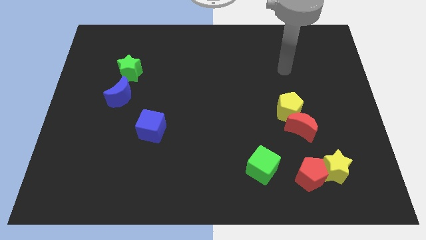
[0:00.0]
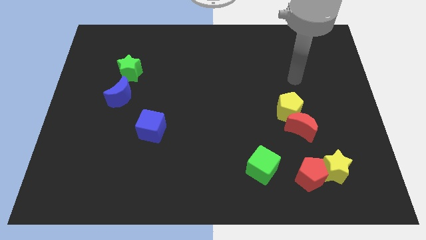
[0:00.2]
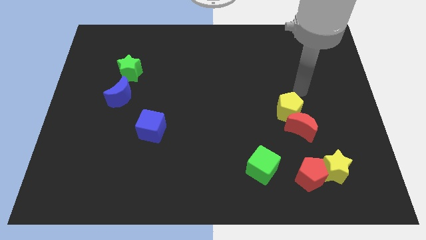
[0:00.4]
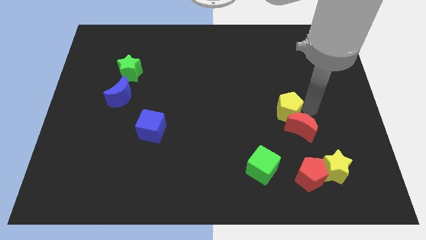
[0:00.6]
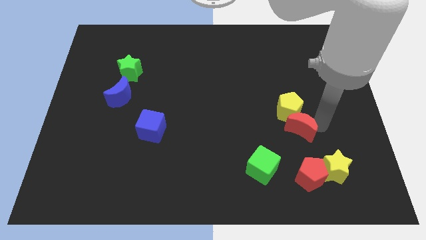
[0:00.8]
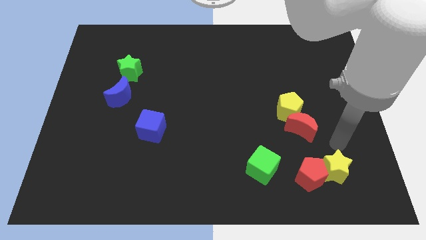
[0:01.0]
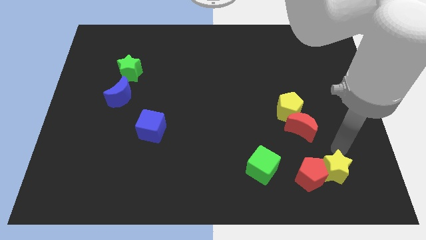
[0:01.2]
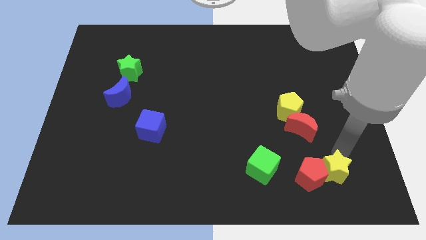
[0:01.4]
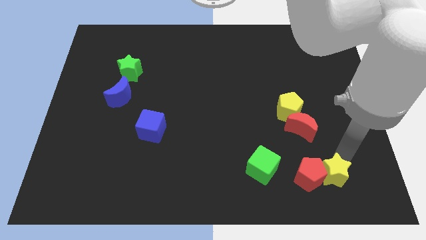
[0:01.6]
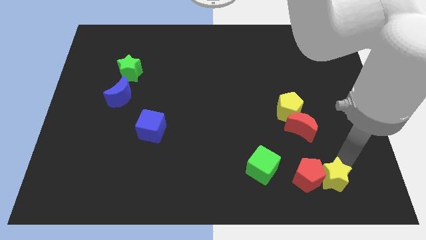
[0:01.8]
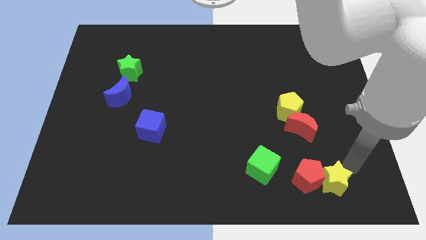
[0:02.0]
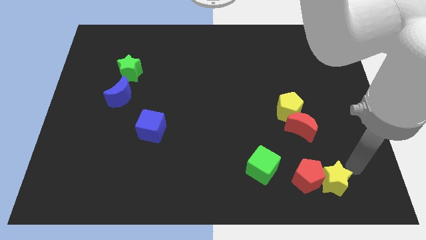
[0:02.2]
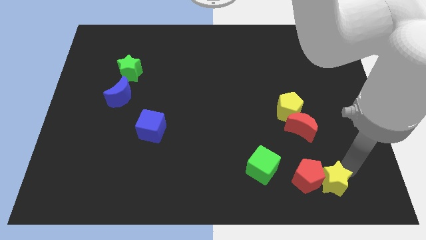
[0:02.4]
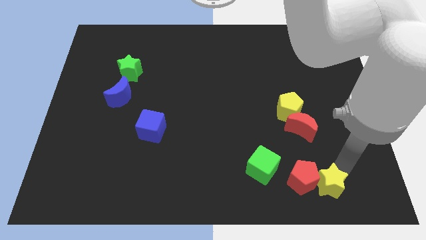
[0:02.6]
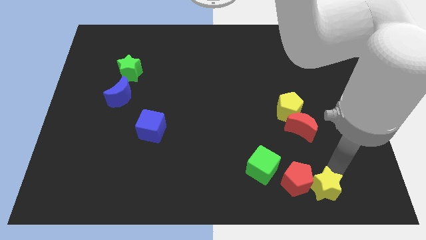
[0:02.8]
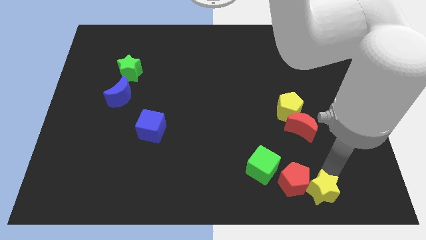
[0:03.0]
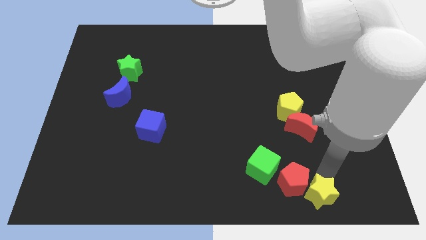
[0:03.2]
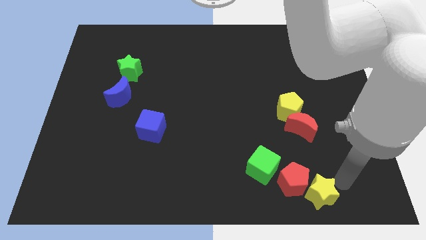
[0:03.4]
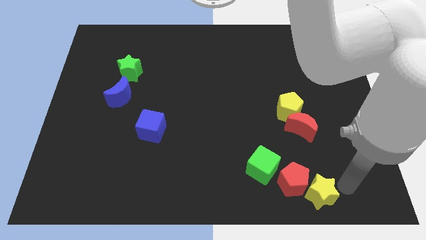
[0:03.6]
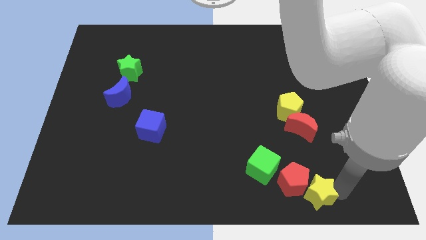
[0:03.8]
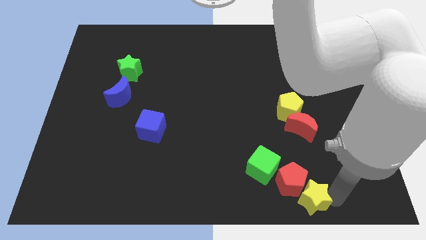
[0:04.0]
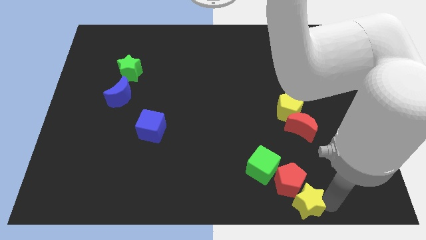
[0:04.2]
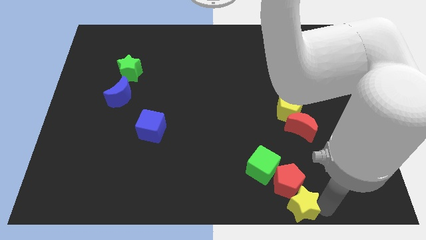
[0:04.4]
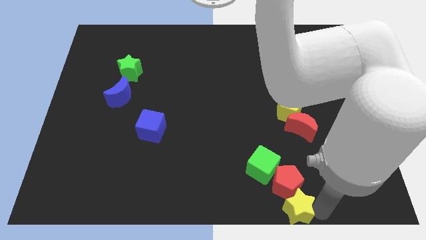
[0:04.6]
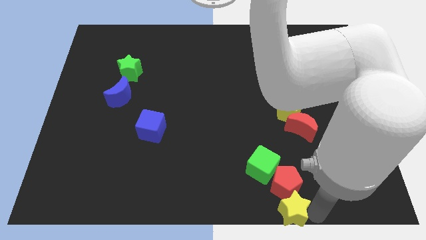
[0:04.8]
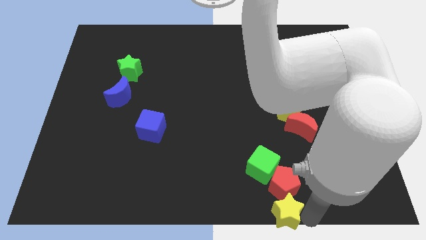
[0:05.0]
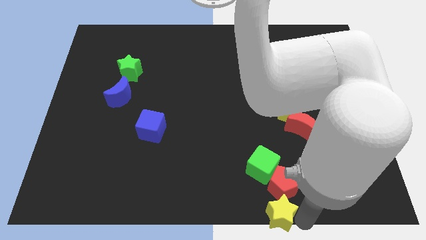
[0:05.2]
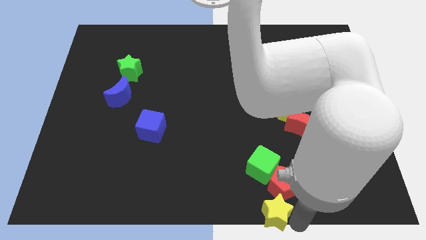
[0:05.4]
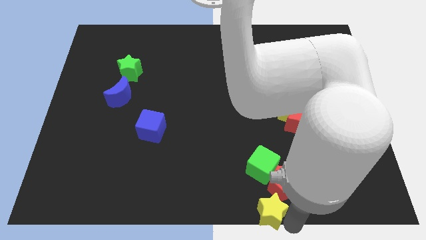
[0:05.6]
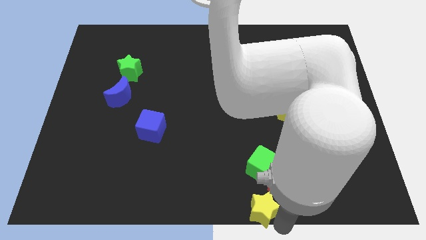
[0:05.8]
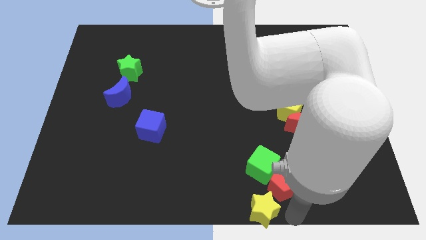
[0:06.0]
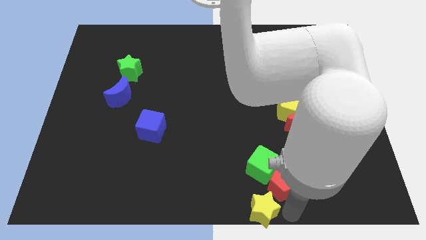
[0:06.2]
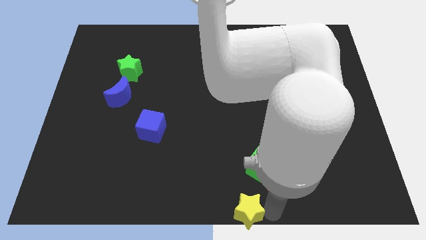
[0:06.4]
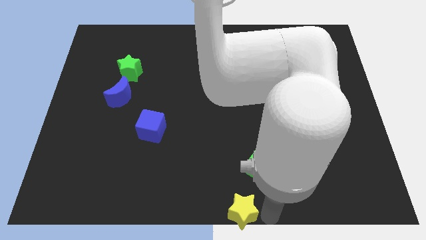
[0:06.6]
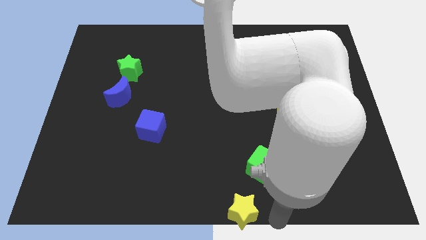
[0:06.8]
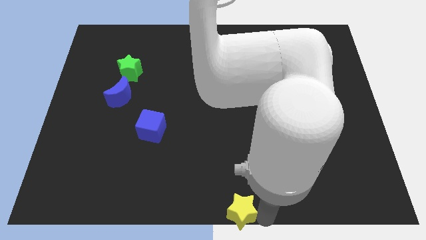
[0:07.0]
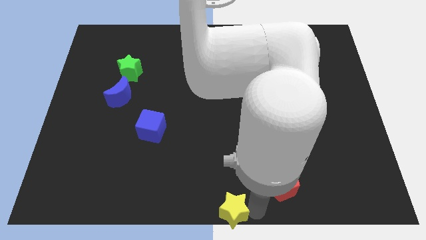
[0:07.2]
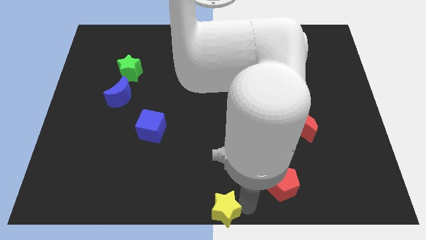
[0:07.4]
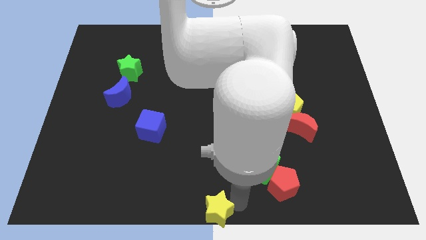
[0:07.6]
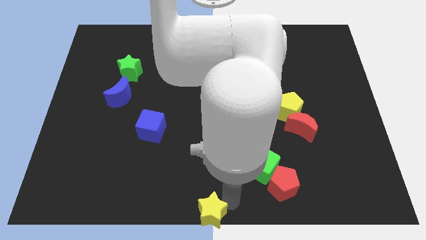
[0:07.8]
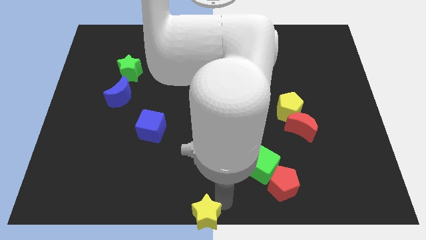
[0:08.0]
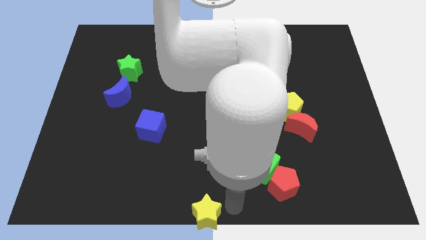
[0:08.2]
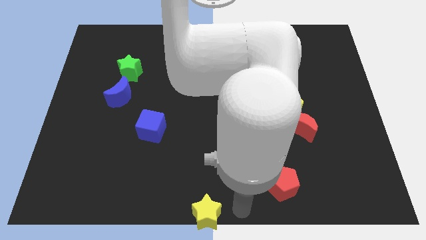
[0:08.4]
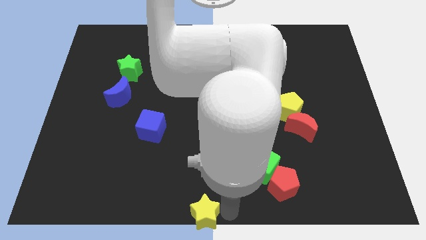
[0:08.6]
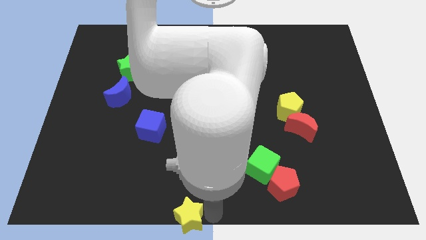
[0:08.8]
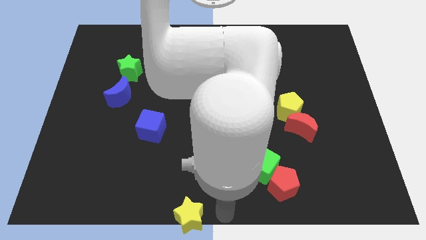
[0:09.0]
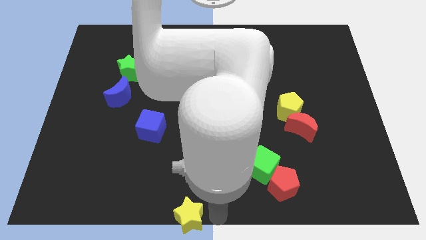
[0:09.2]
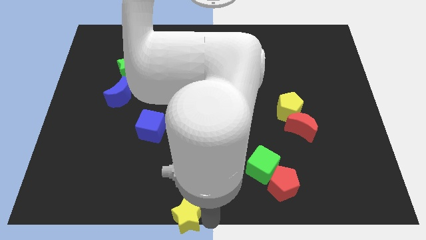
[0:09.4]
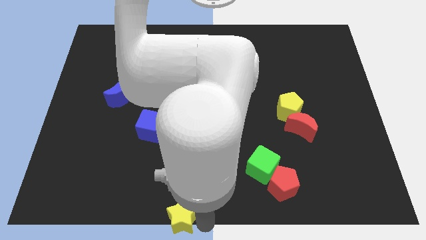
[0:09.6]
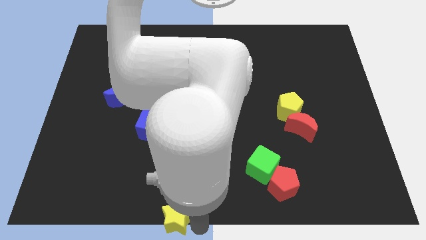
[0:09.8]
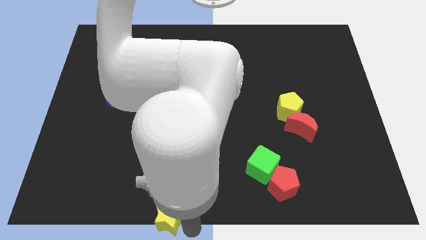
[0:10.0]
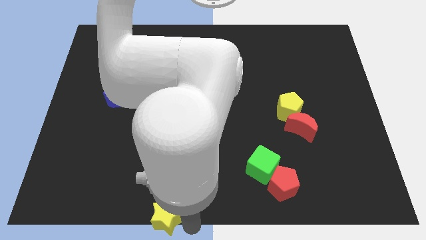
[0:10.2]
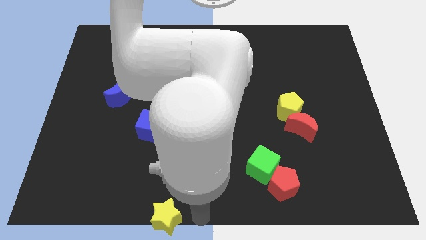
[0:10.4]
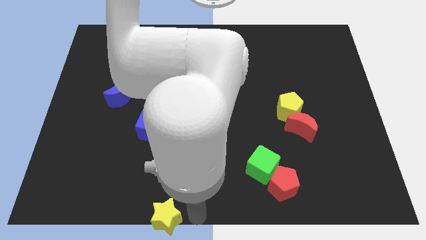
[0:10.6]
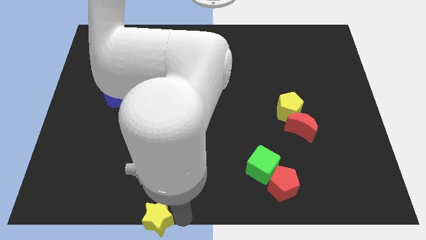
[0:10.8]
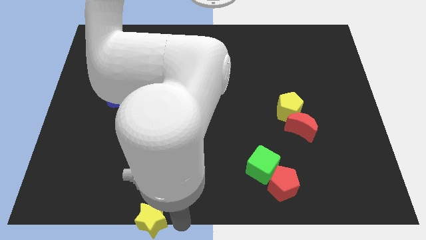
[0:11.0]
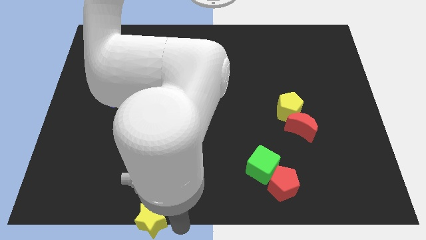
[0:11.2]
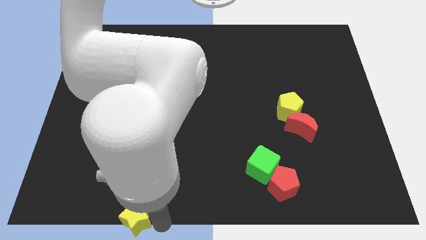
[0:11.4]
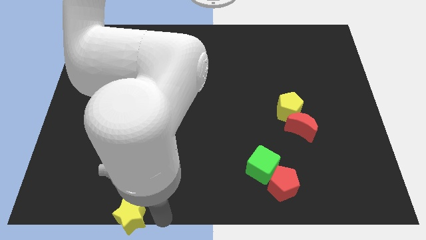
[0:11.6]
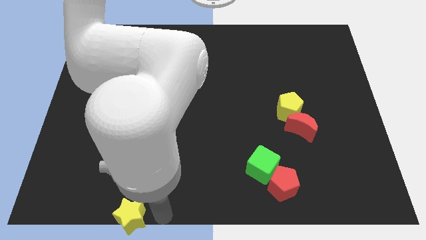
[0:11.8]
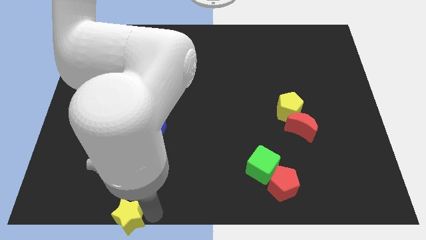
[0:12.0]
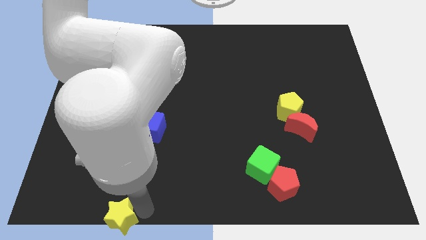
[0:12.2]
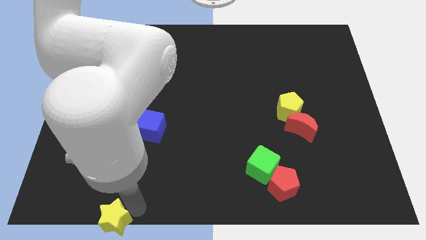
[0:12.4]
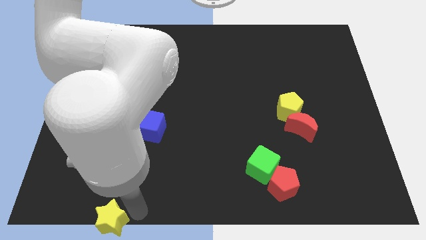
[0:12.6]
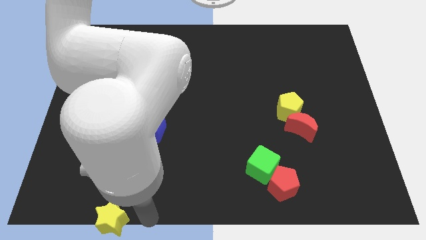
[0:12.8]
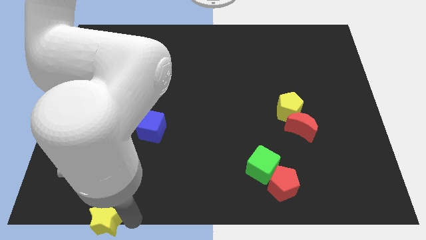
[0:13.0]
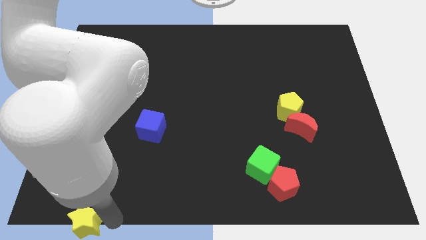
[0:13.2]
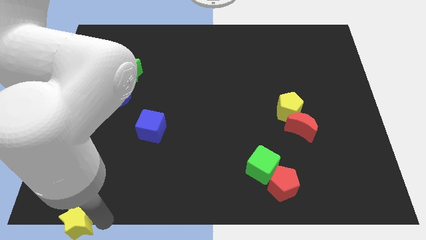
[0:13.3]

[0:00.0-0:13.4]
move the yellow star to the lower left corner
